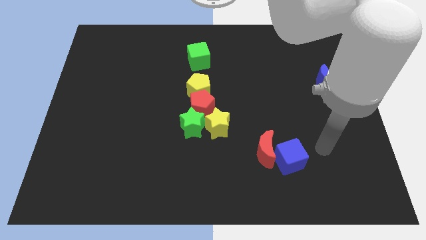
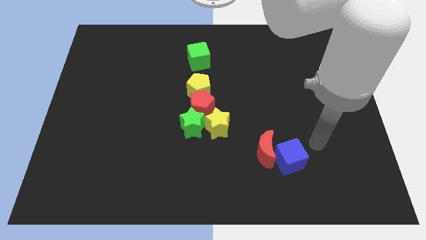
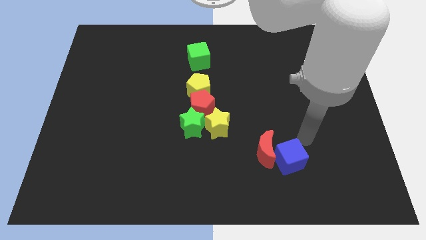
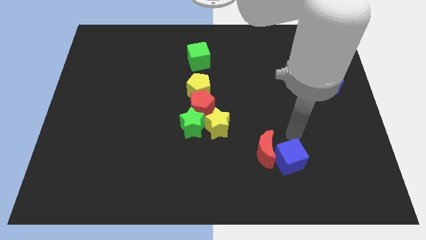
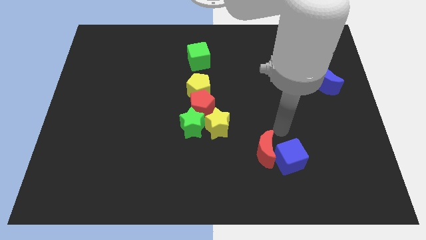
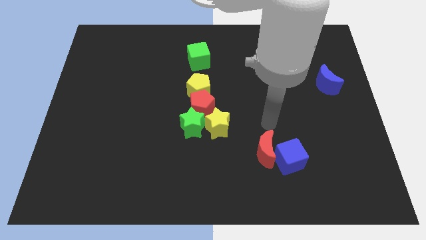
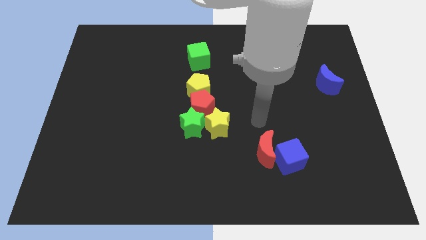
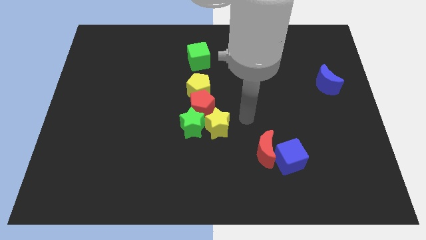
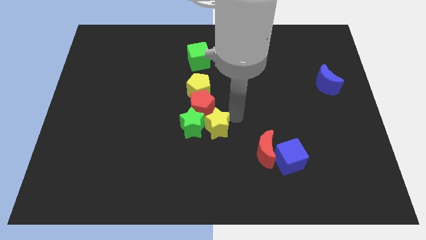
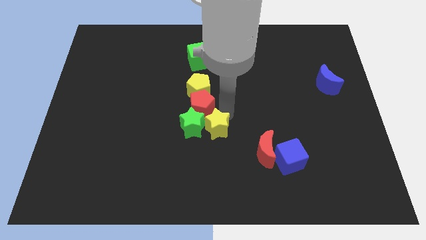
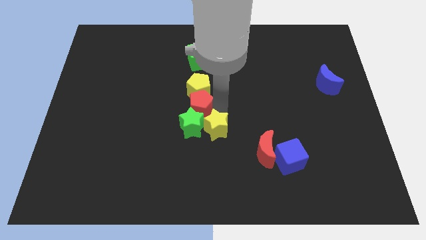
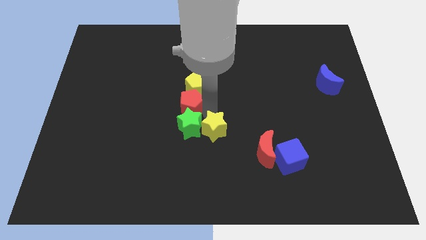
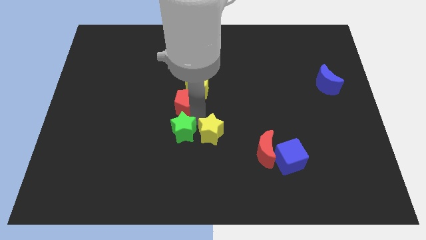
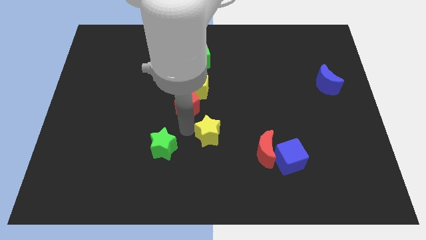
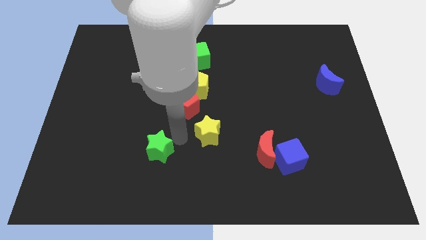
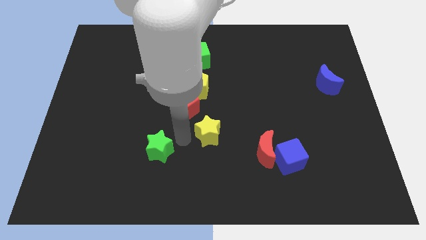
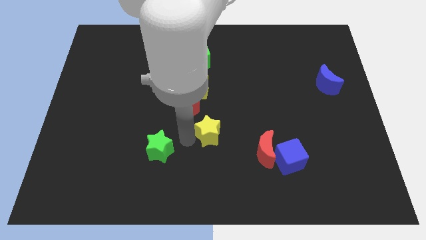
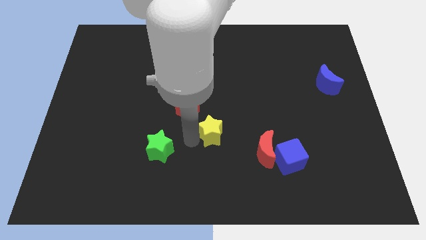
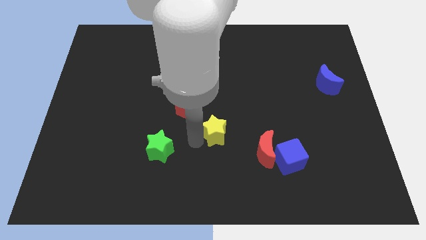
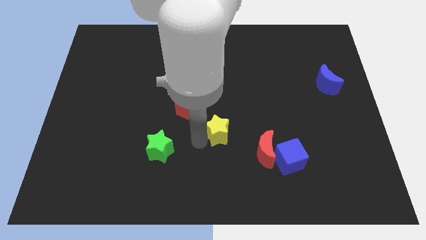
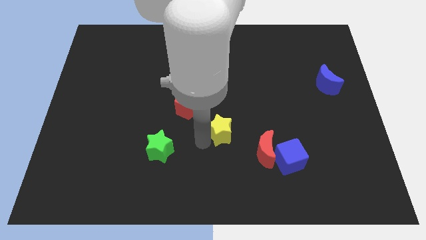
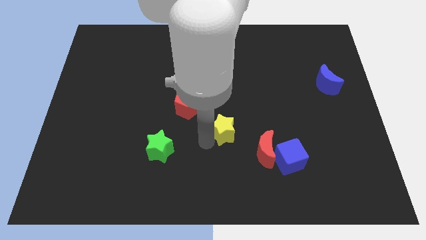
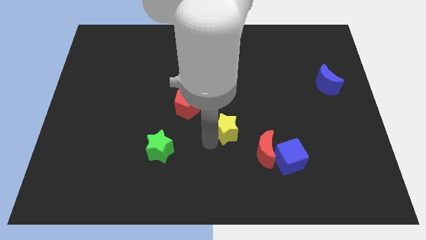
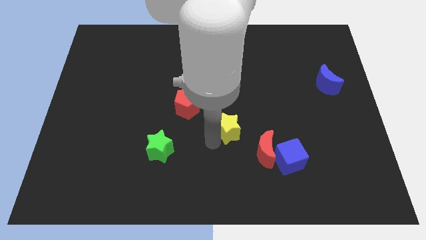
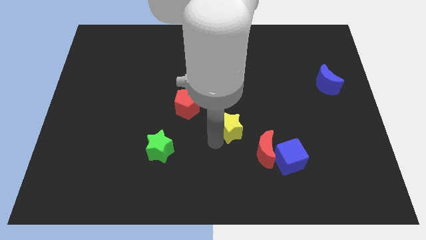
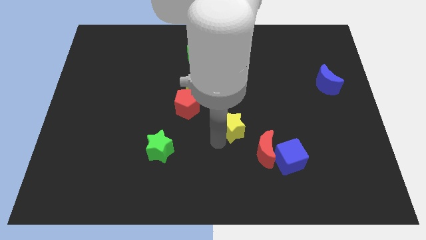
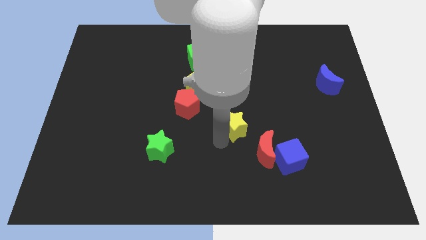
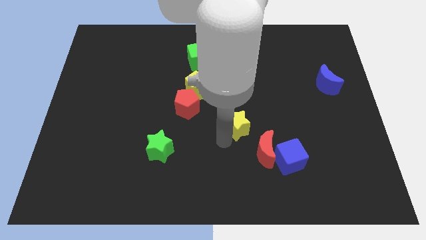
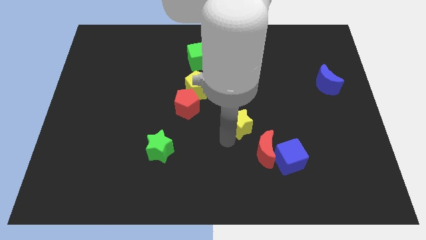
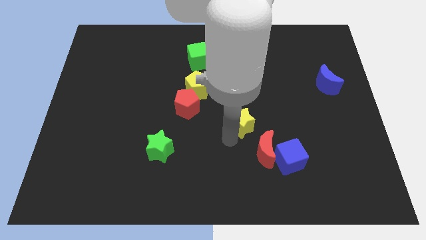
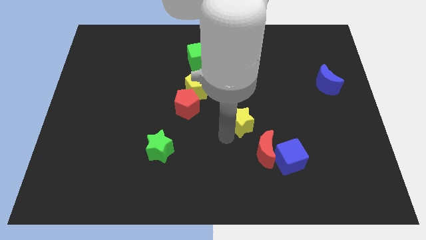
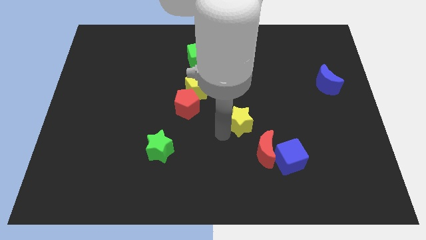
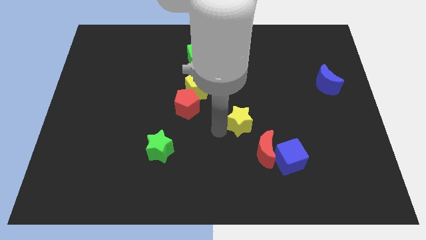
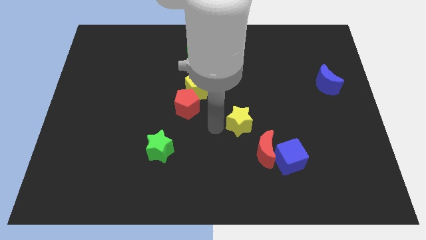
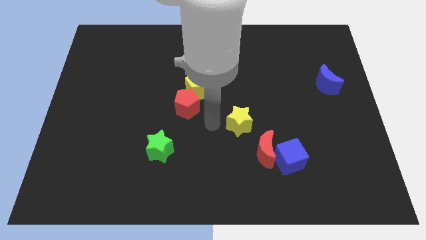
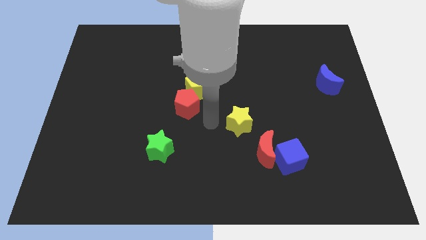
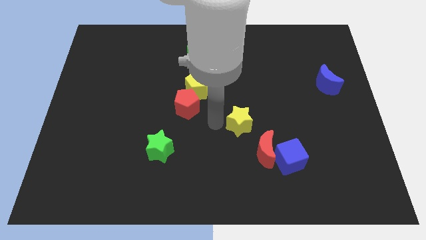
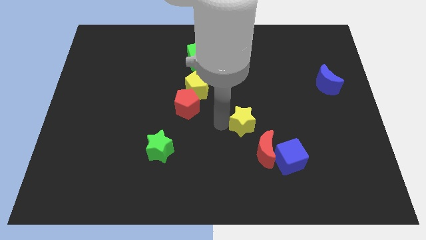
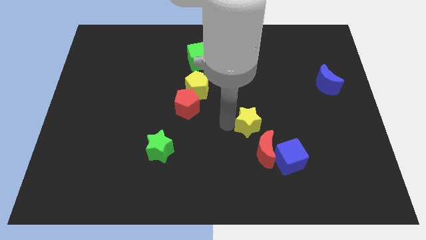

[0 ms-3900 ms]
move the yellow star right somewhat

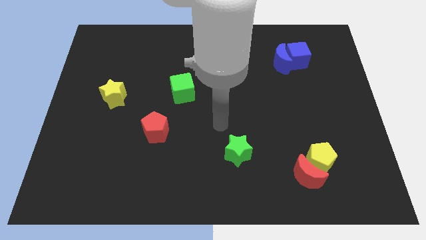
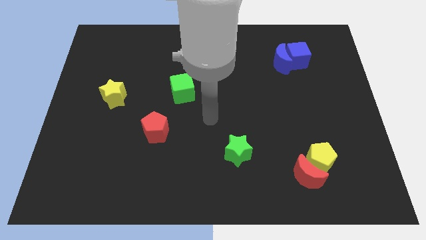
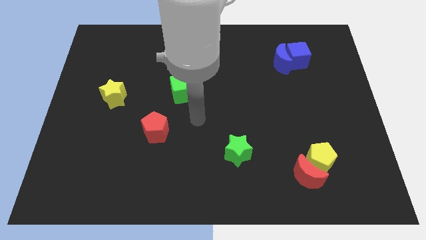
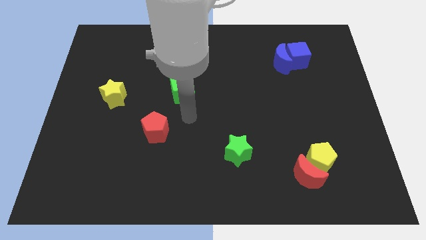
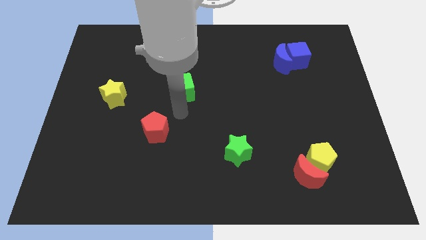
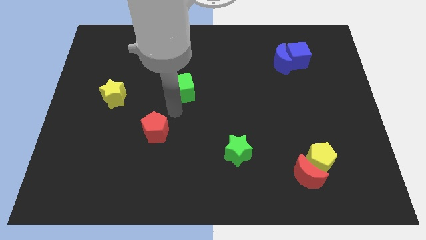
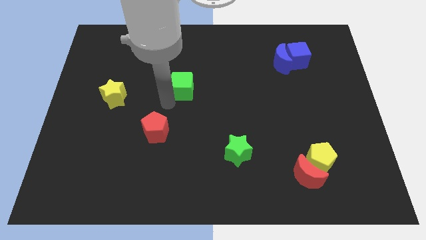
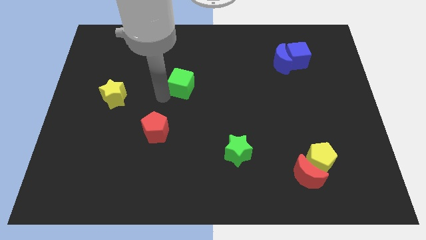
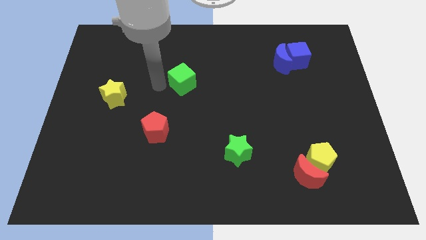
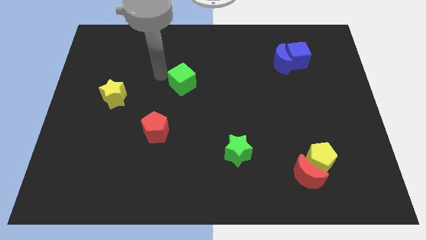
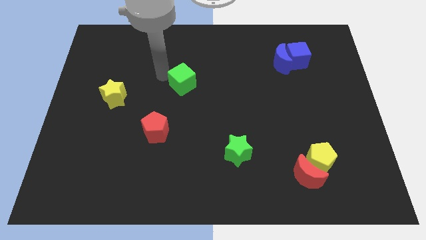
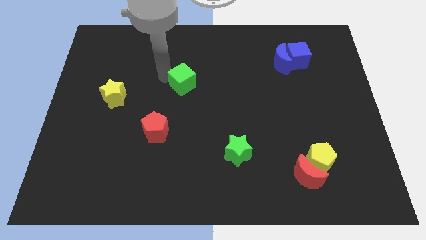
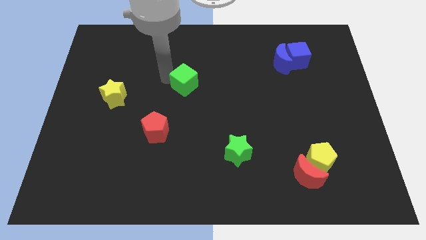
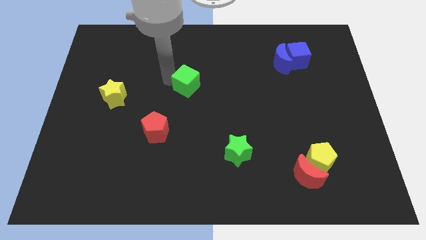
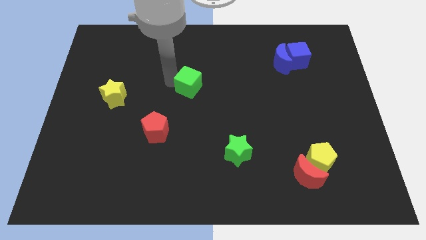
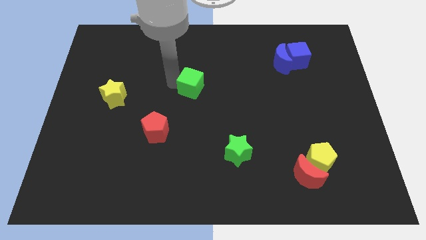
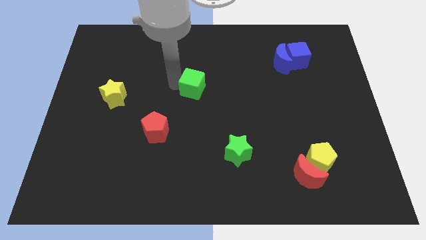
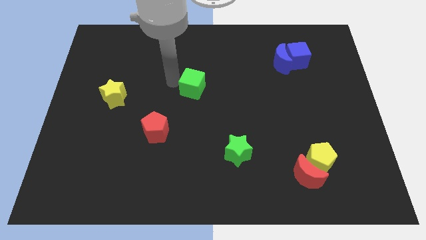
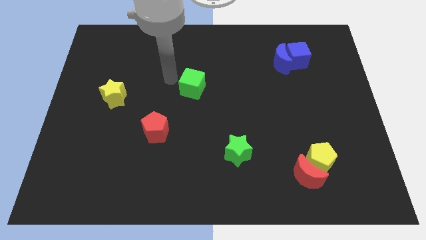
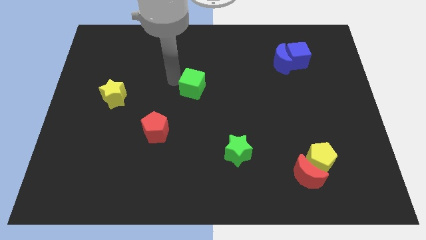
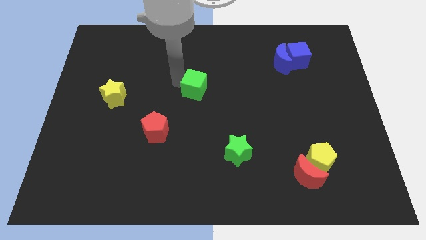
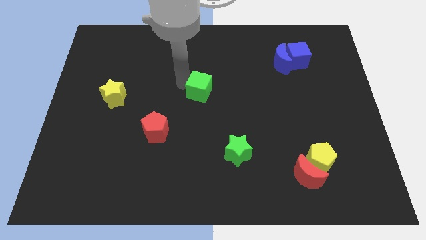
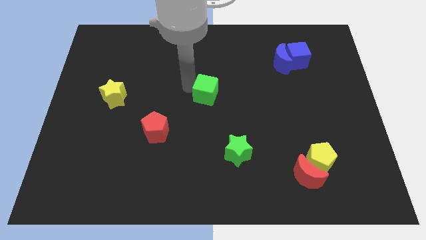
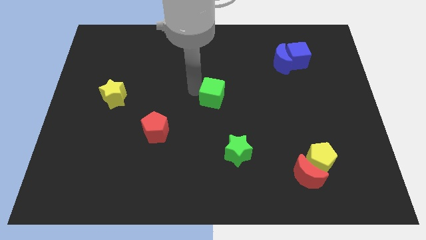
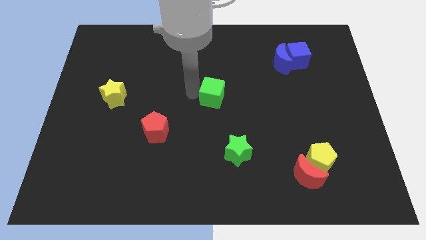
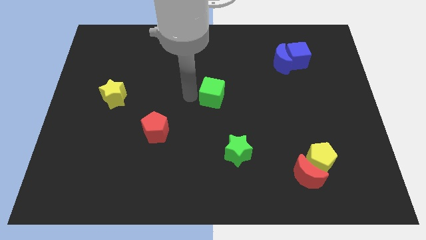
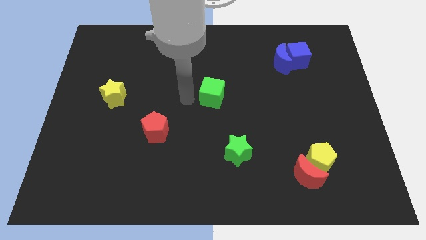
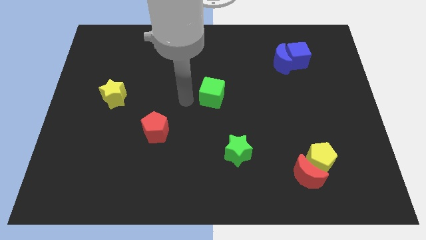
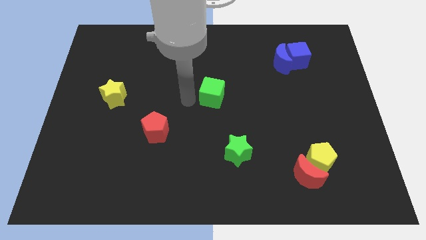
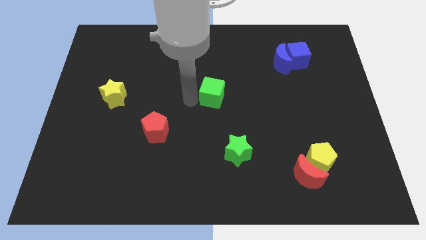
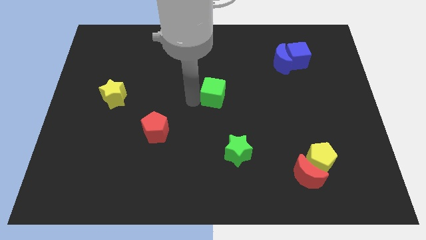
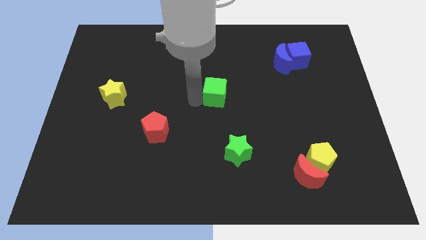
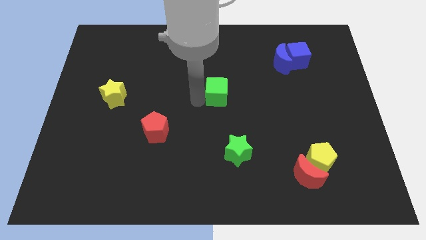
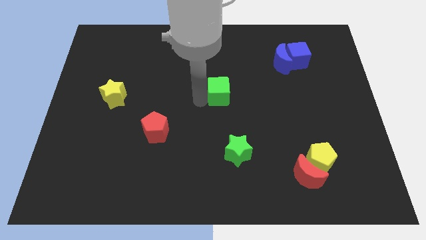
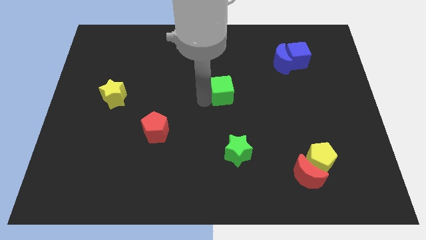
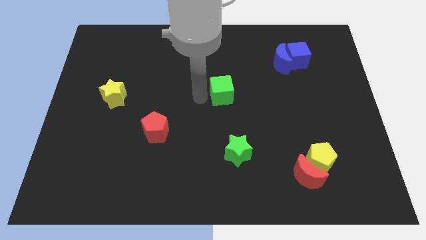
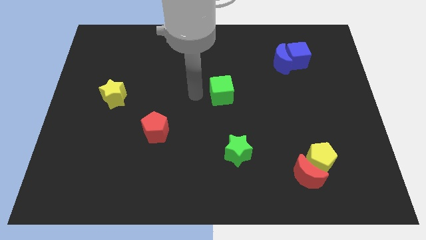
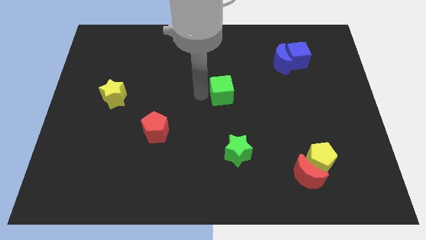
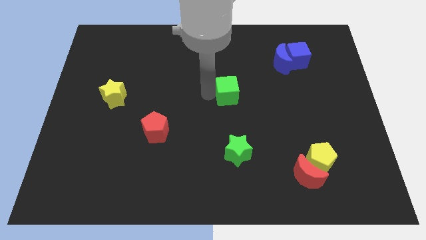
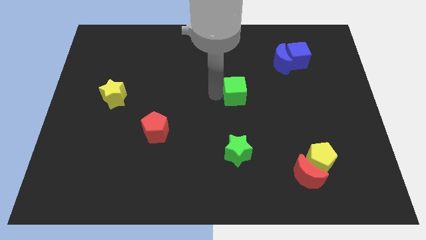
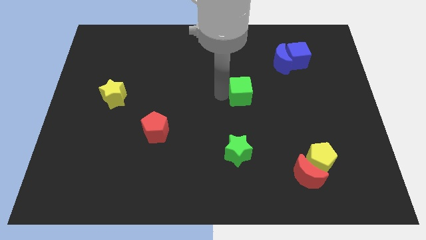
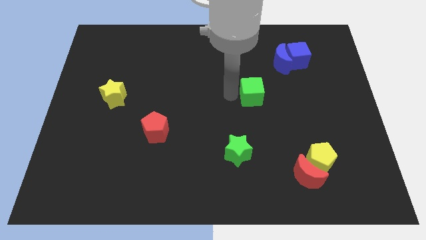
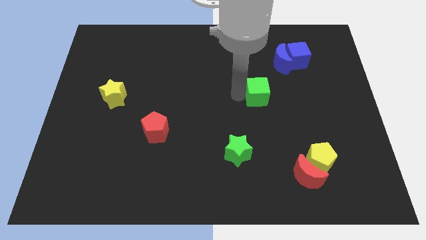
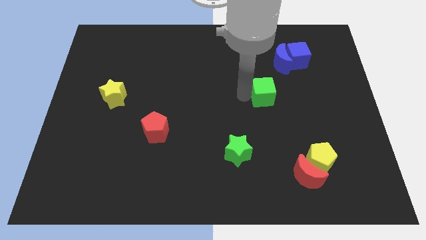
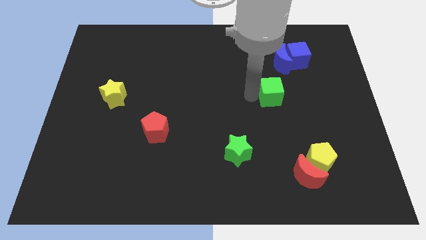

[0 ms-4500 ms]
move the green cube right
